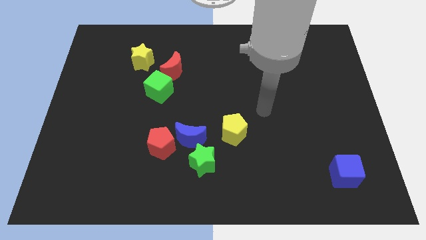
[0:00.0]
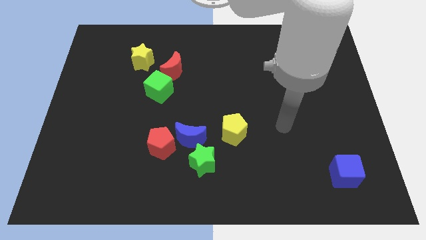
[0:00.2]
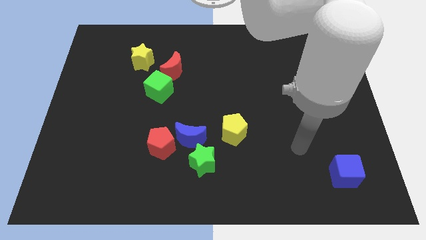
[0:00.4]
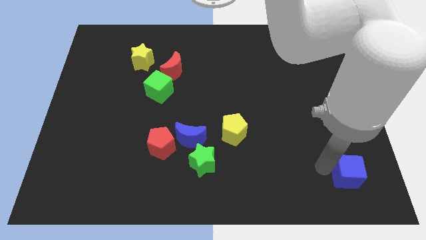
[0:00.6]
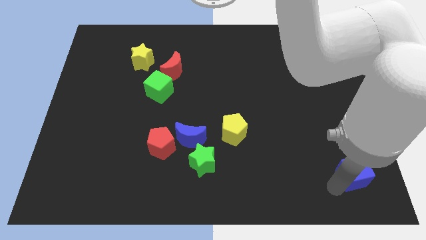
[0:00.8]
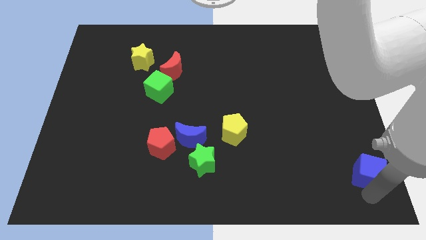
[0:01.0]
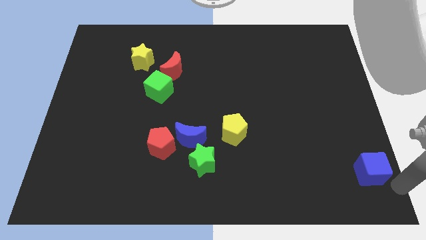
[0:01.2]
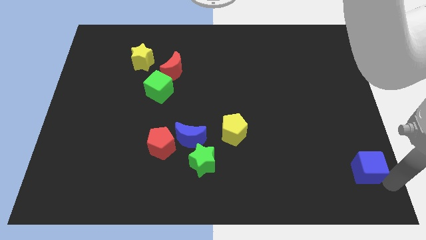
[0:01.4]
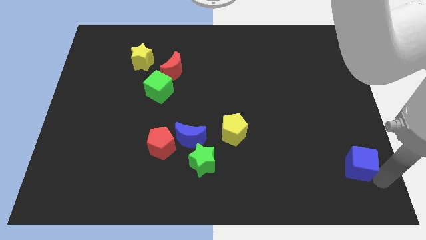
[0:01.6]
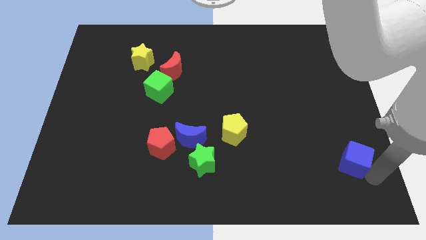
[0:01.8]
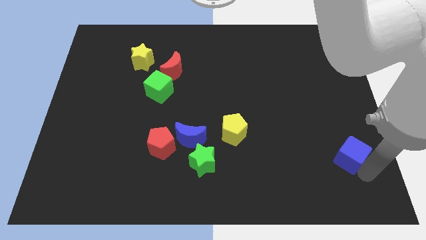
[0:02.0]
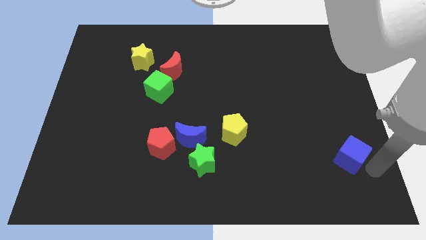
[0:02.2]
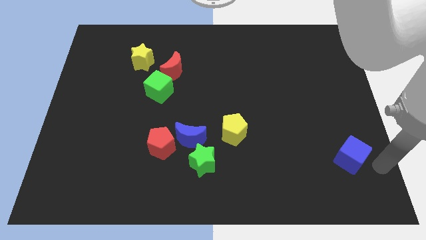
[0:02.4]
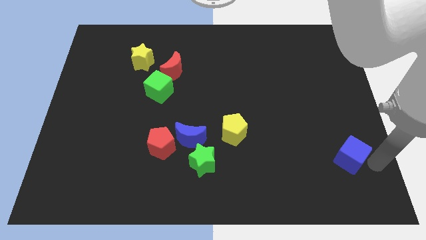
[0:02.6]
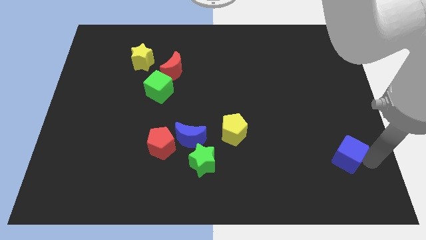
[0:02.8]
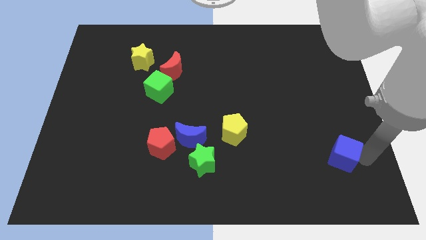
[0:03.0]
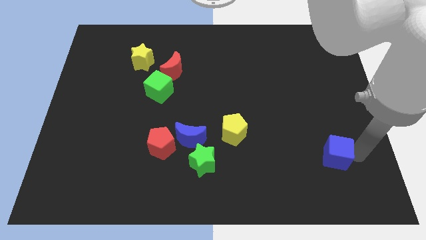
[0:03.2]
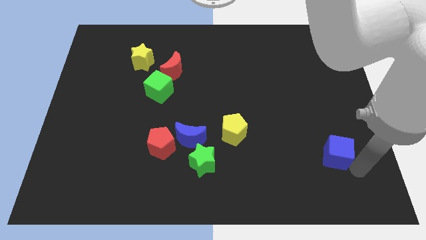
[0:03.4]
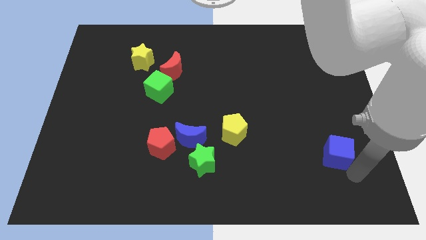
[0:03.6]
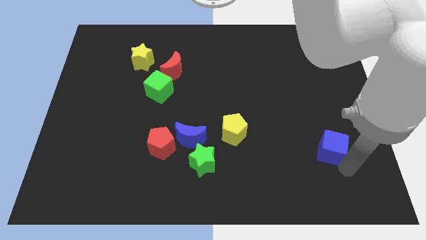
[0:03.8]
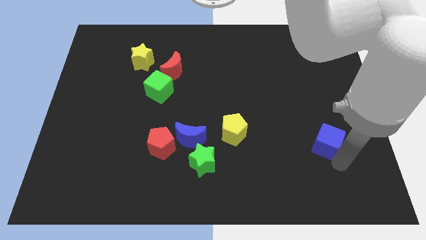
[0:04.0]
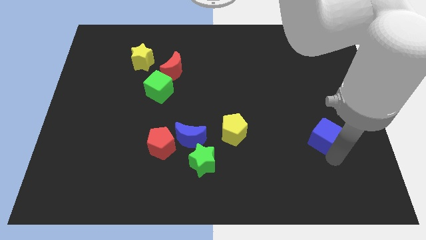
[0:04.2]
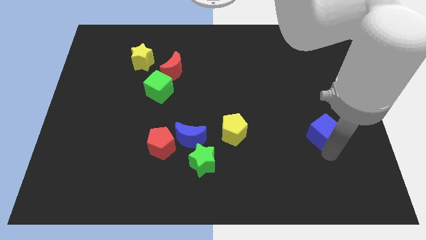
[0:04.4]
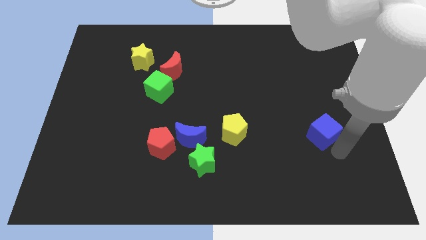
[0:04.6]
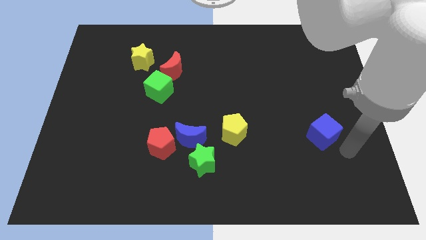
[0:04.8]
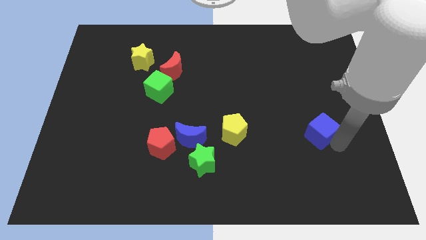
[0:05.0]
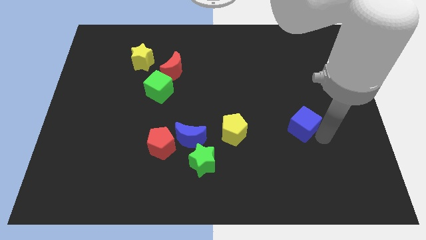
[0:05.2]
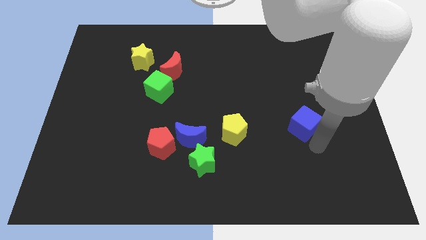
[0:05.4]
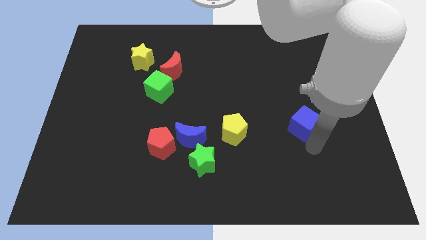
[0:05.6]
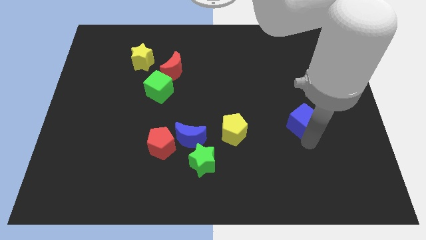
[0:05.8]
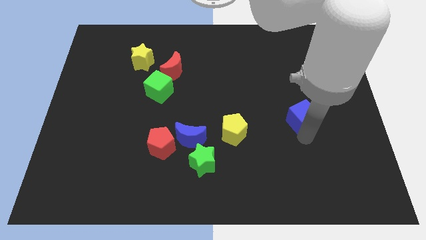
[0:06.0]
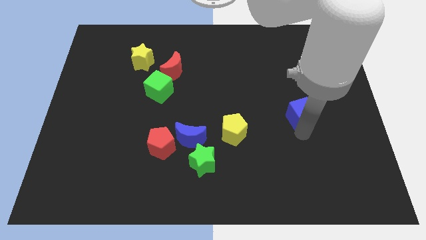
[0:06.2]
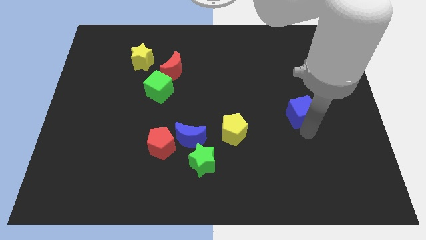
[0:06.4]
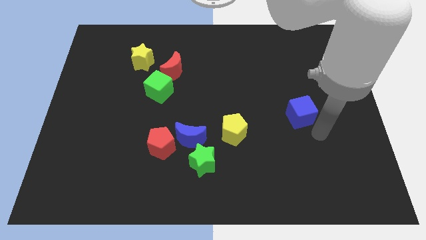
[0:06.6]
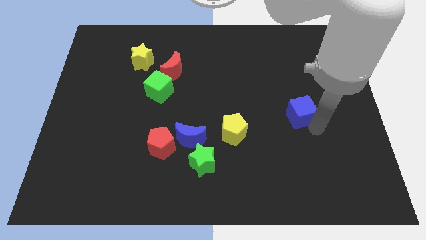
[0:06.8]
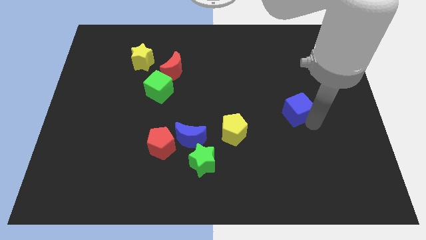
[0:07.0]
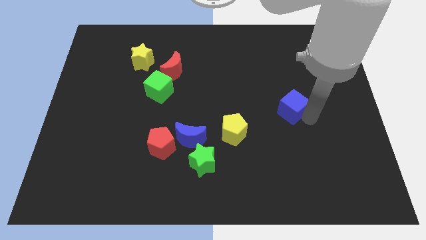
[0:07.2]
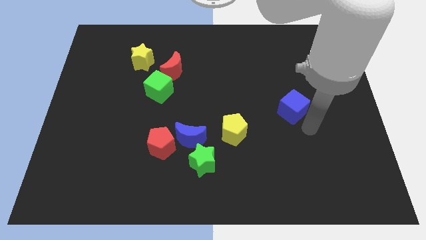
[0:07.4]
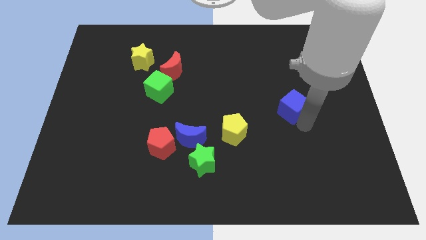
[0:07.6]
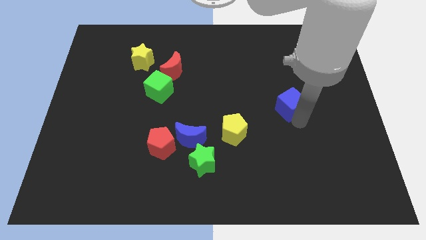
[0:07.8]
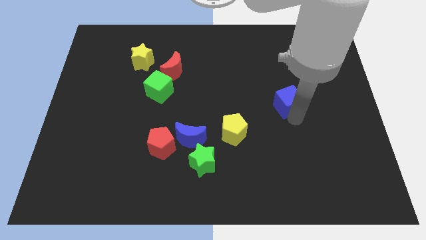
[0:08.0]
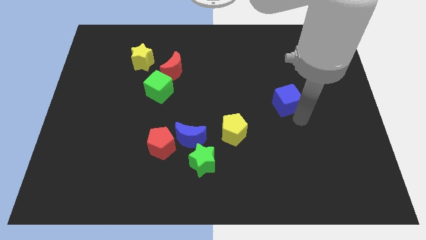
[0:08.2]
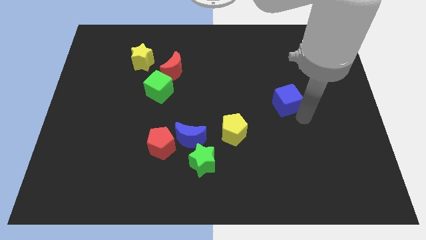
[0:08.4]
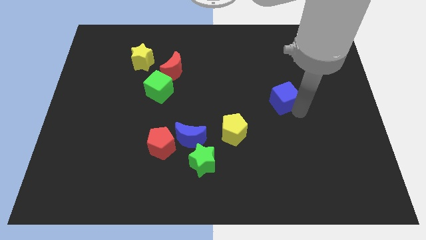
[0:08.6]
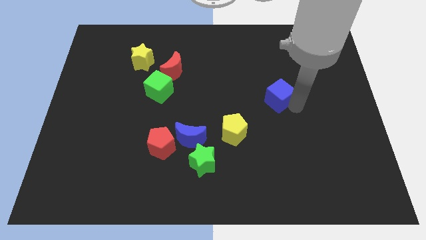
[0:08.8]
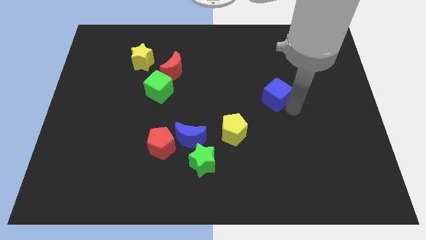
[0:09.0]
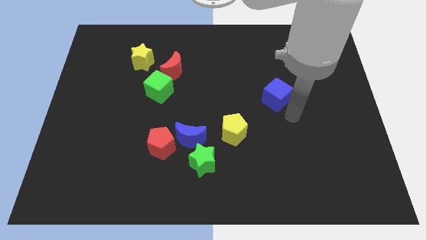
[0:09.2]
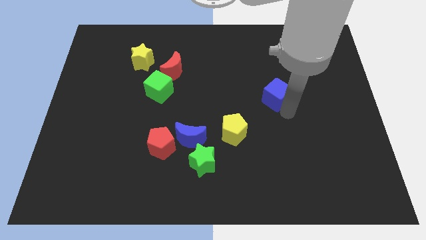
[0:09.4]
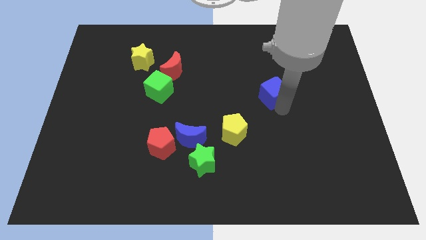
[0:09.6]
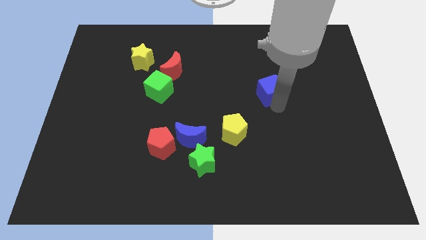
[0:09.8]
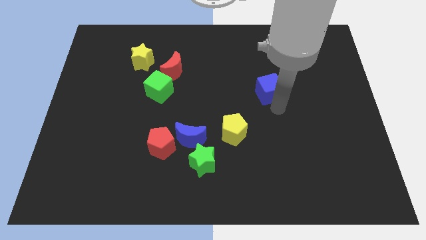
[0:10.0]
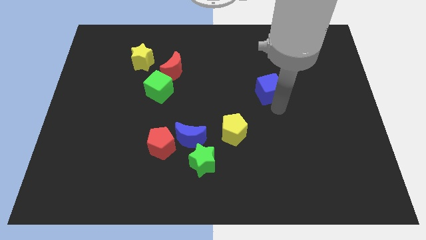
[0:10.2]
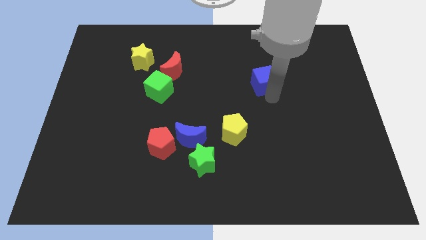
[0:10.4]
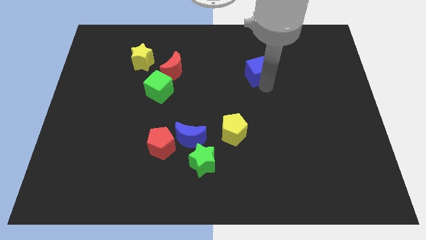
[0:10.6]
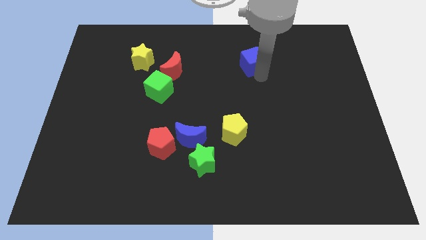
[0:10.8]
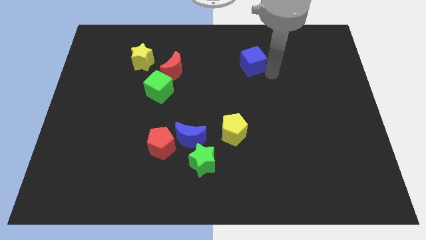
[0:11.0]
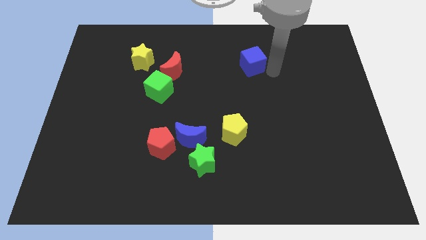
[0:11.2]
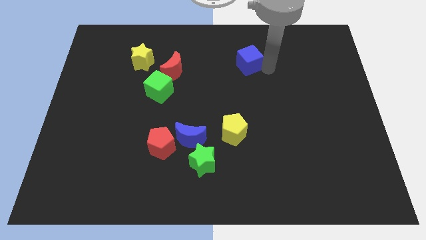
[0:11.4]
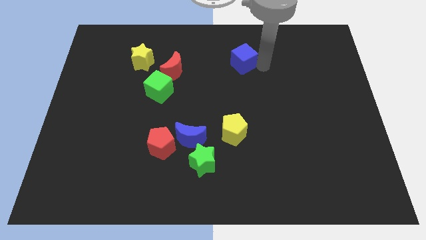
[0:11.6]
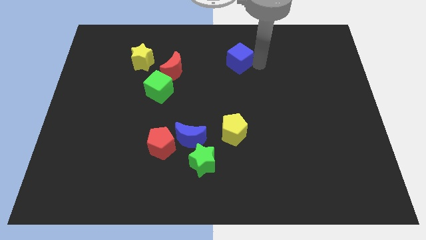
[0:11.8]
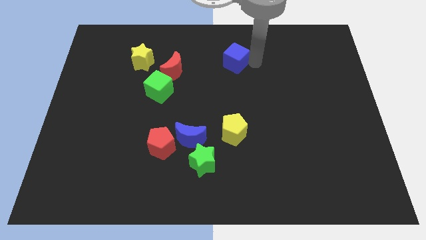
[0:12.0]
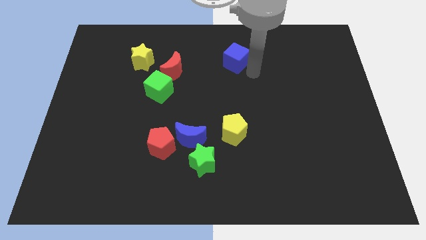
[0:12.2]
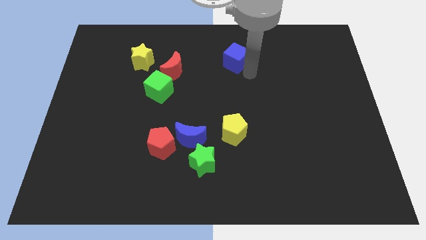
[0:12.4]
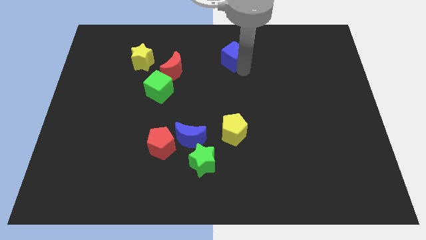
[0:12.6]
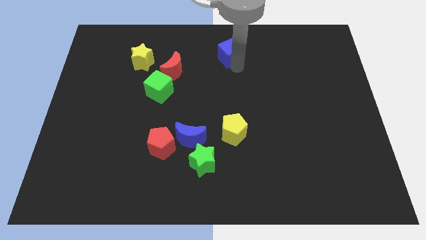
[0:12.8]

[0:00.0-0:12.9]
push the blue cube to the towards your base
